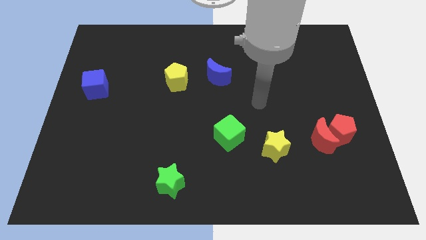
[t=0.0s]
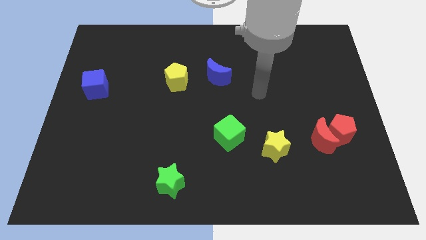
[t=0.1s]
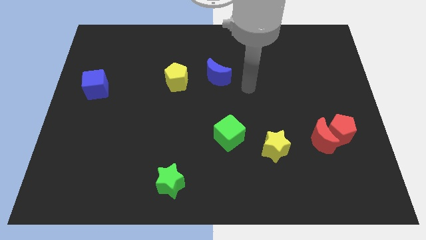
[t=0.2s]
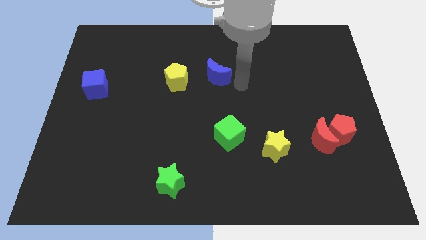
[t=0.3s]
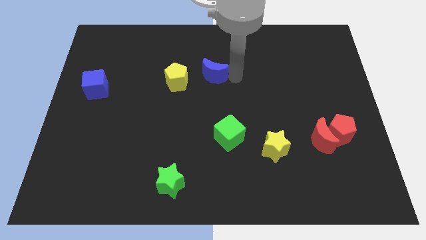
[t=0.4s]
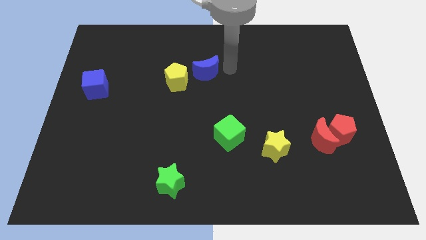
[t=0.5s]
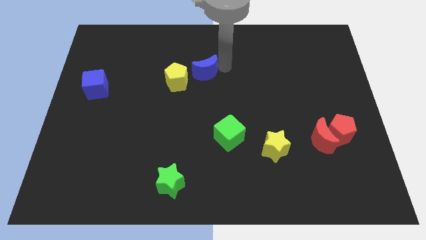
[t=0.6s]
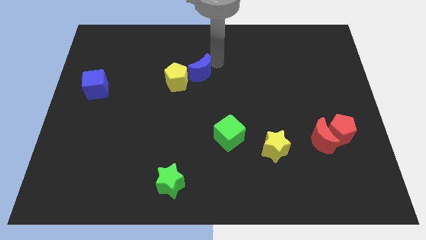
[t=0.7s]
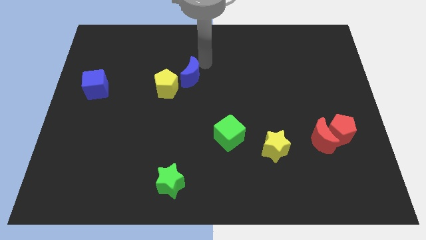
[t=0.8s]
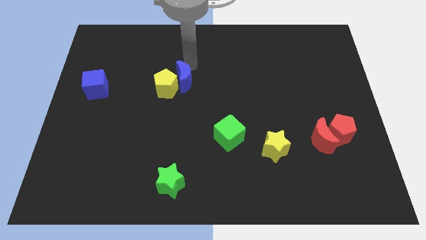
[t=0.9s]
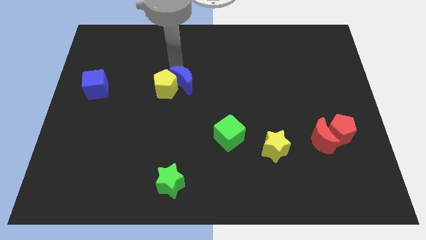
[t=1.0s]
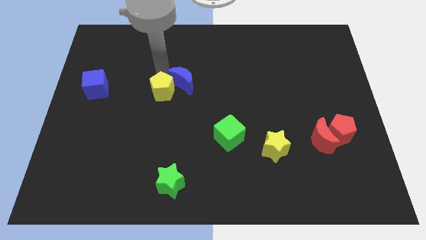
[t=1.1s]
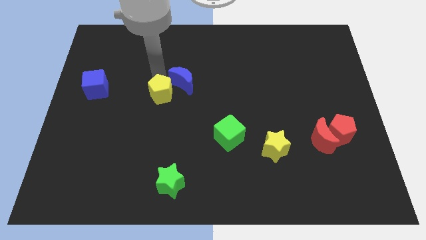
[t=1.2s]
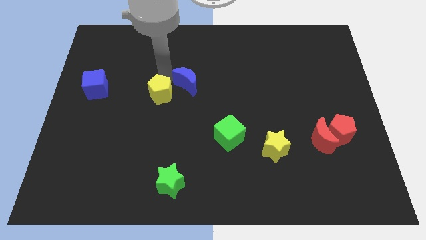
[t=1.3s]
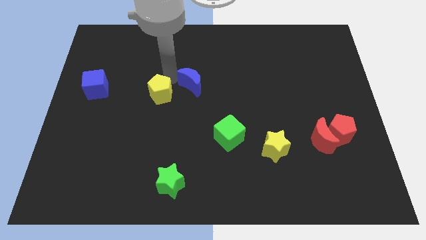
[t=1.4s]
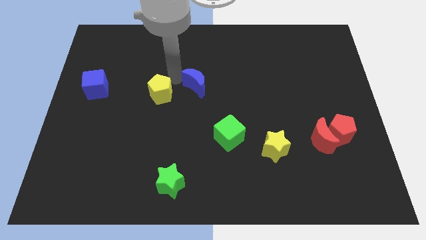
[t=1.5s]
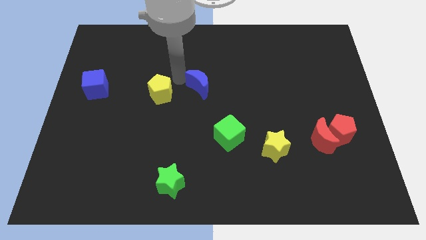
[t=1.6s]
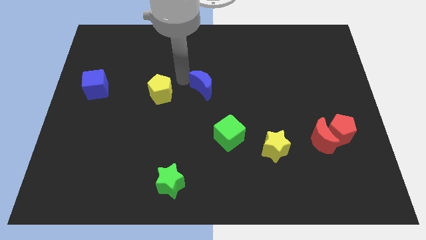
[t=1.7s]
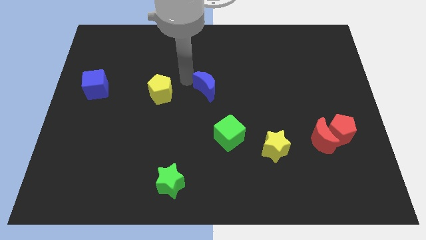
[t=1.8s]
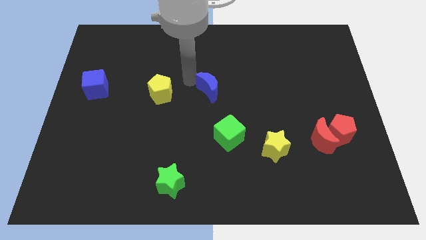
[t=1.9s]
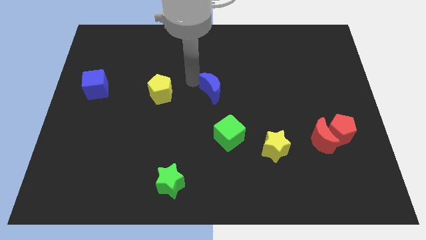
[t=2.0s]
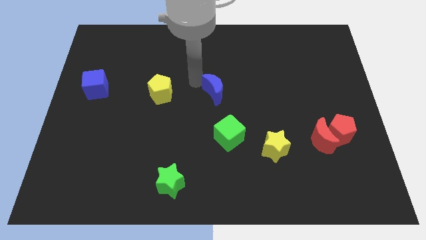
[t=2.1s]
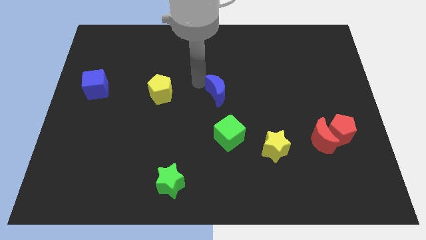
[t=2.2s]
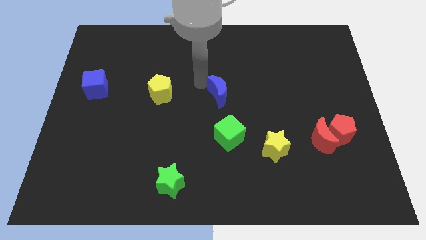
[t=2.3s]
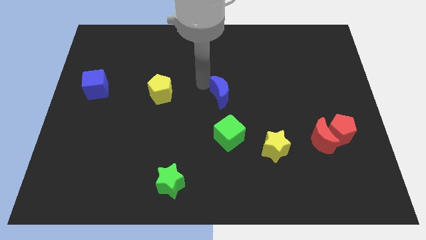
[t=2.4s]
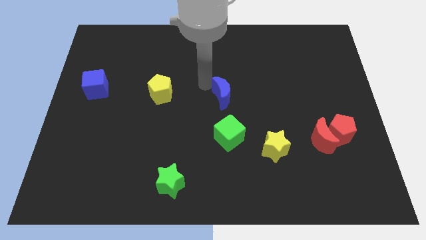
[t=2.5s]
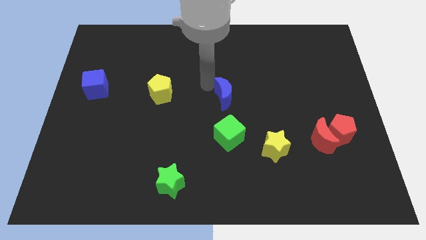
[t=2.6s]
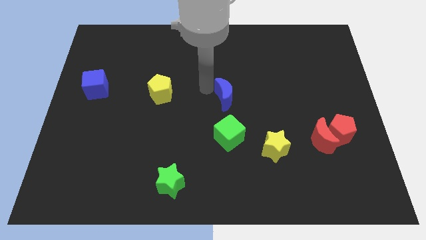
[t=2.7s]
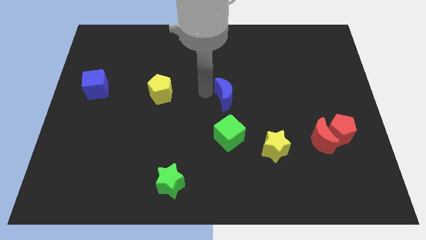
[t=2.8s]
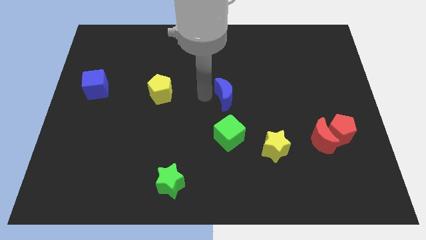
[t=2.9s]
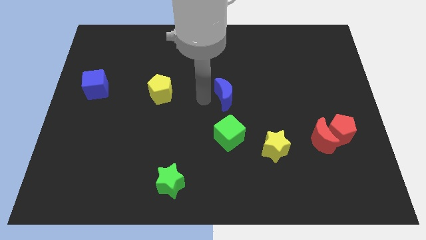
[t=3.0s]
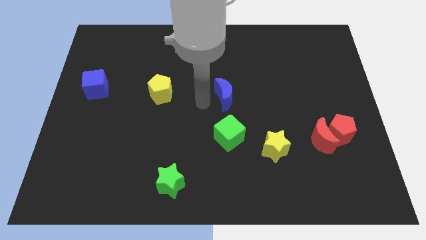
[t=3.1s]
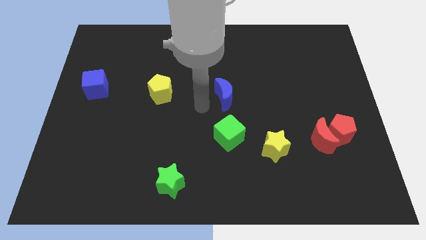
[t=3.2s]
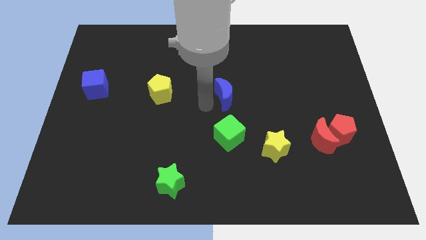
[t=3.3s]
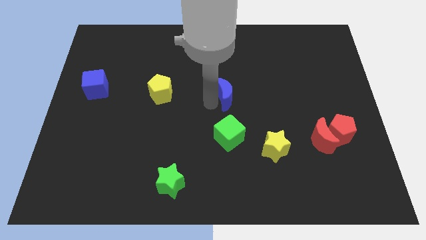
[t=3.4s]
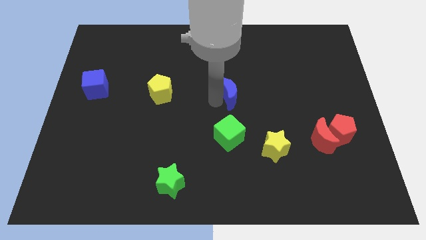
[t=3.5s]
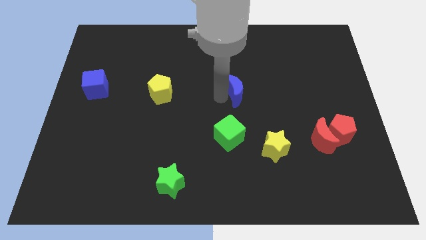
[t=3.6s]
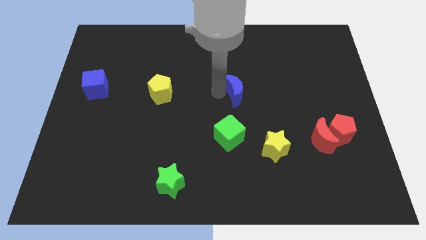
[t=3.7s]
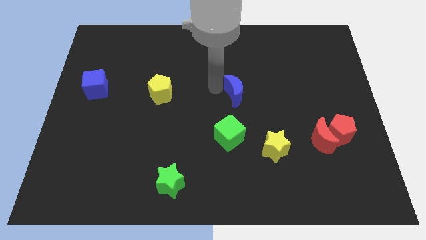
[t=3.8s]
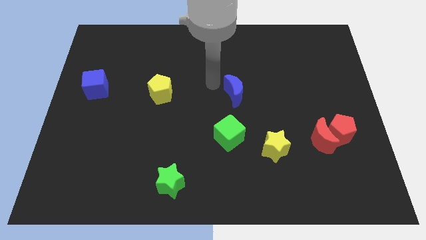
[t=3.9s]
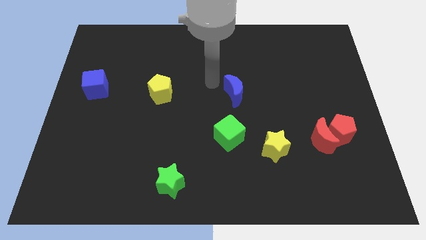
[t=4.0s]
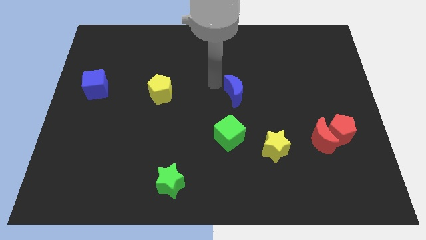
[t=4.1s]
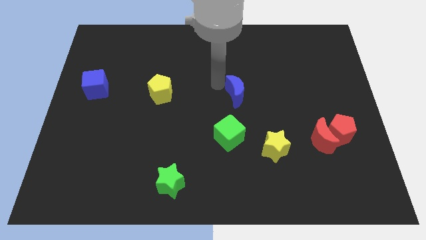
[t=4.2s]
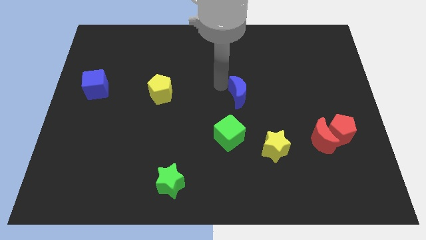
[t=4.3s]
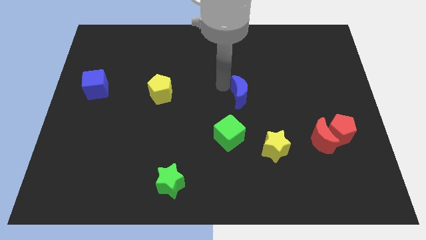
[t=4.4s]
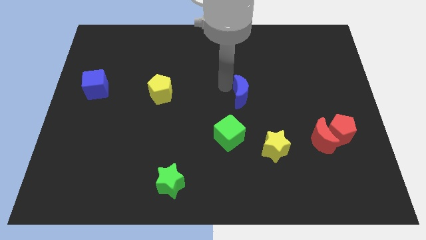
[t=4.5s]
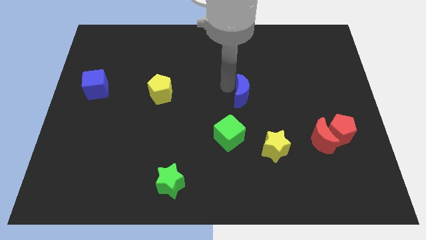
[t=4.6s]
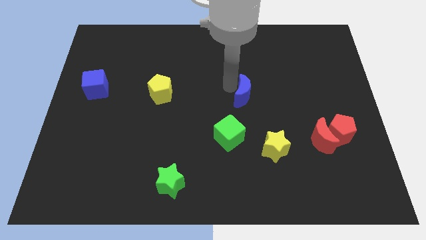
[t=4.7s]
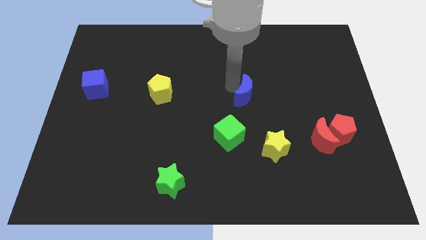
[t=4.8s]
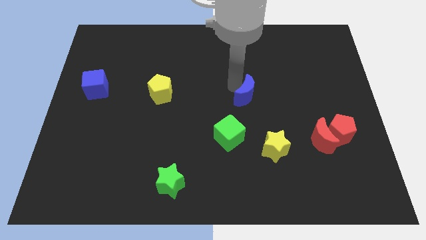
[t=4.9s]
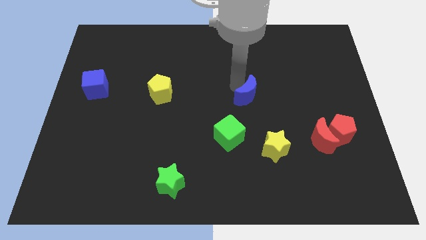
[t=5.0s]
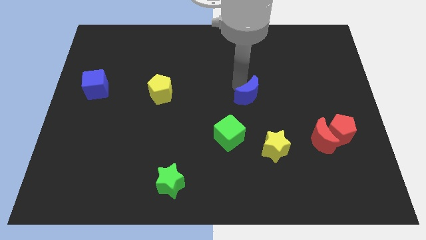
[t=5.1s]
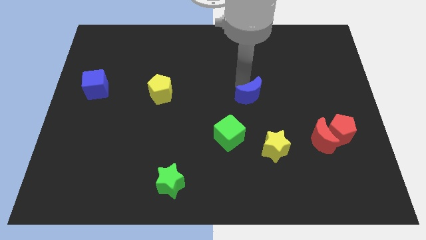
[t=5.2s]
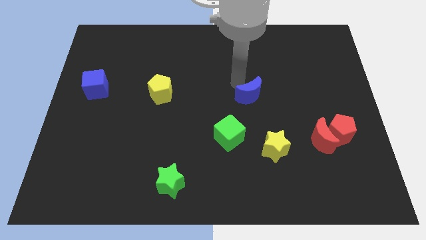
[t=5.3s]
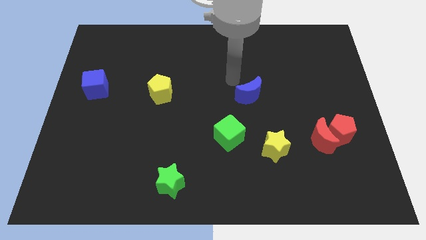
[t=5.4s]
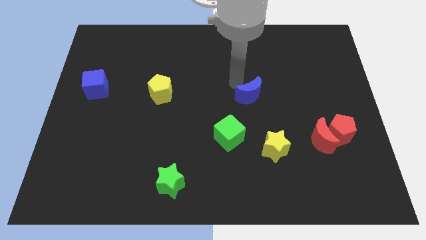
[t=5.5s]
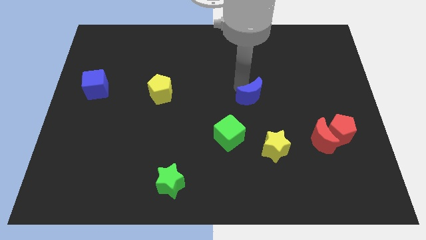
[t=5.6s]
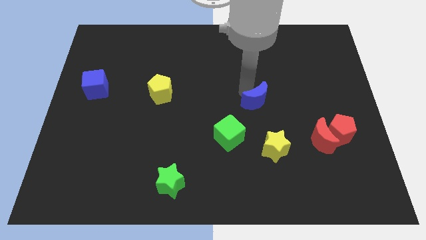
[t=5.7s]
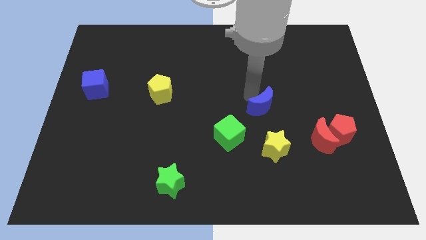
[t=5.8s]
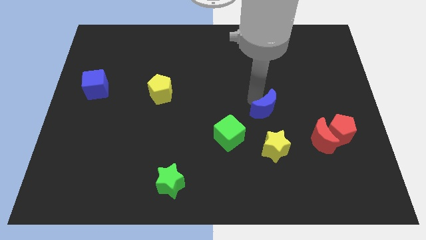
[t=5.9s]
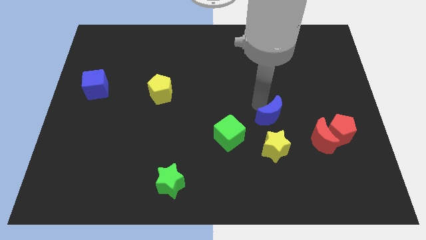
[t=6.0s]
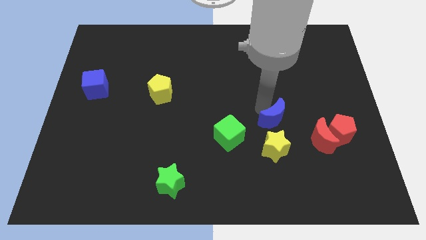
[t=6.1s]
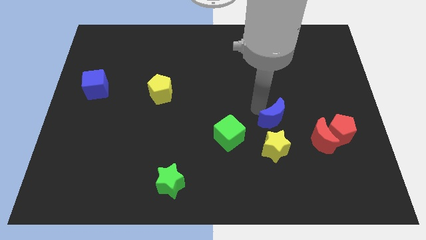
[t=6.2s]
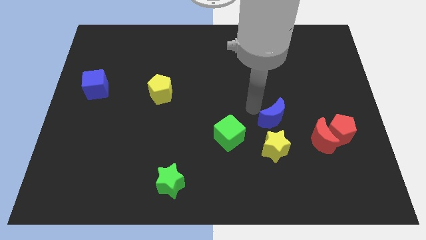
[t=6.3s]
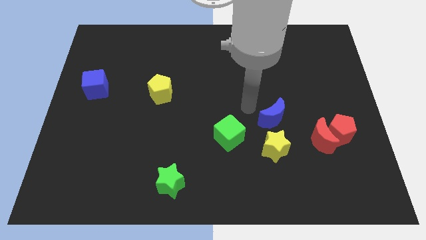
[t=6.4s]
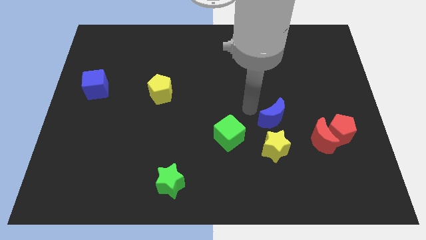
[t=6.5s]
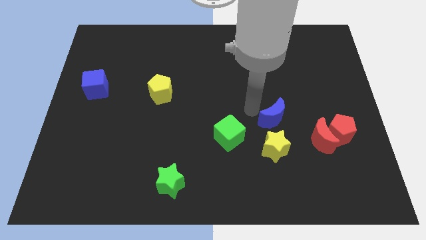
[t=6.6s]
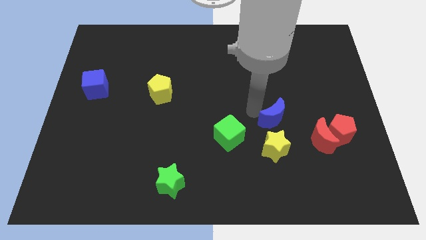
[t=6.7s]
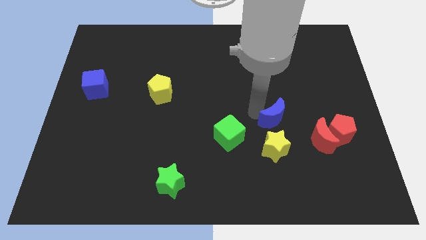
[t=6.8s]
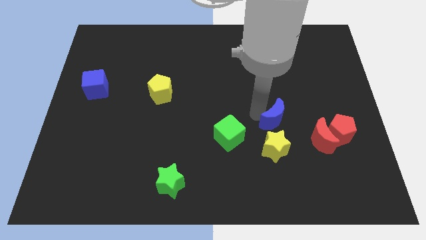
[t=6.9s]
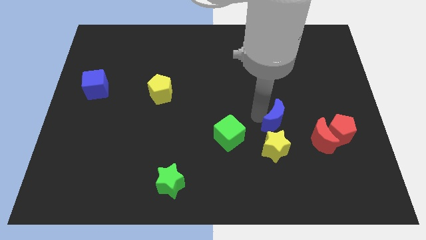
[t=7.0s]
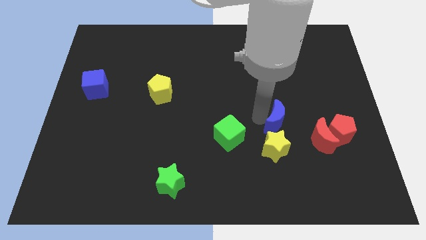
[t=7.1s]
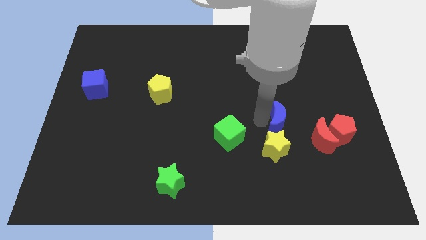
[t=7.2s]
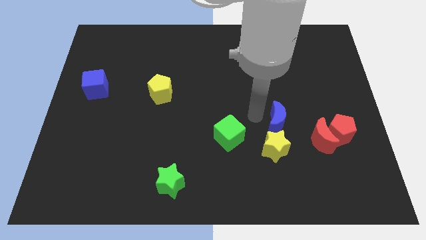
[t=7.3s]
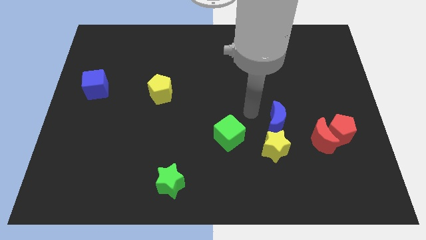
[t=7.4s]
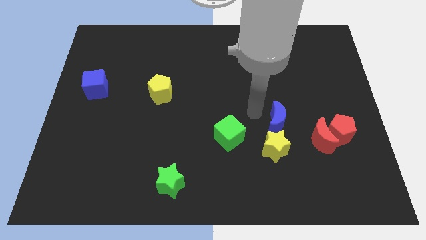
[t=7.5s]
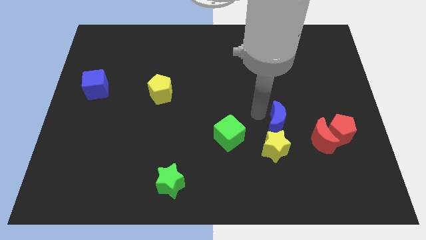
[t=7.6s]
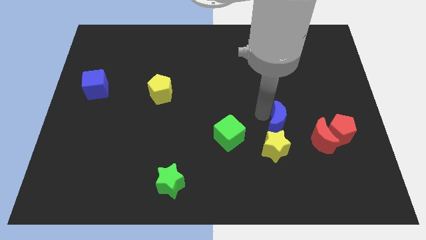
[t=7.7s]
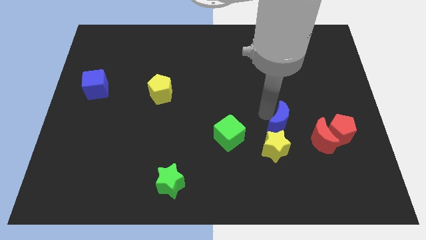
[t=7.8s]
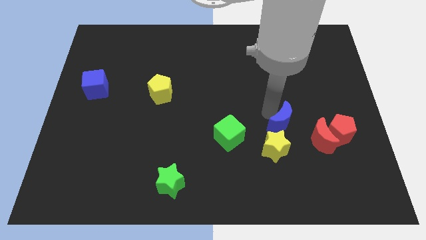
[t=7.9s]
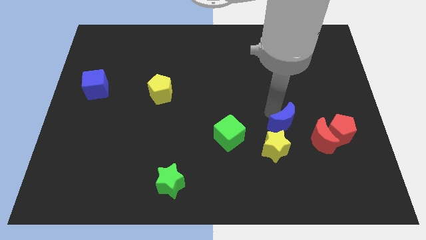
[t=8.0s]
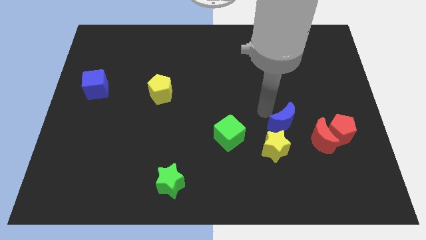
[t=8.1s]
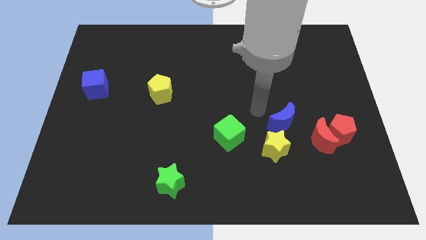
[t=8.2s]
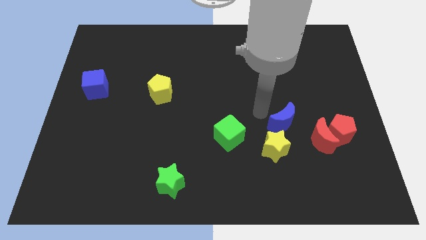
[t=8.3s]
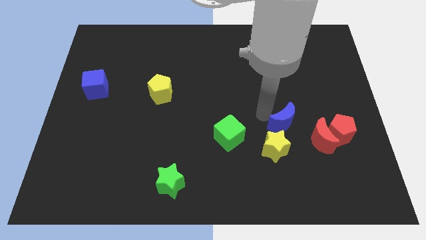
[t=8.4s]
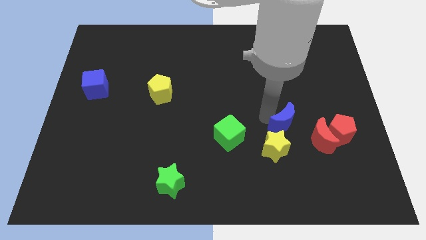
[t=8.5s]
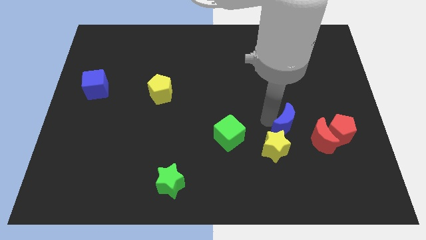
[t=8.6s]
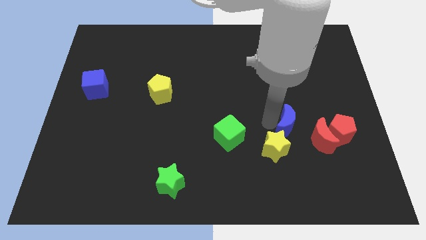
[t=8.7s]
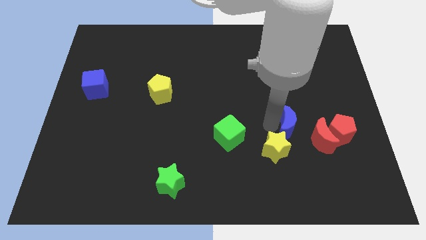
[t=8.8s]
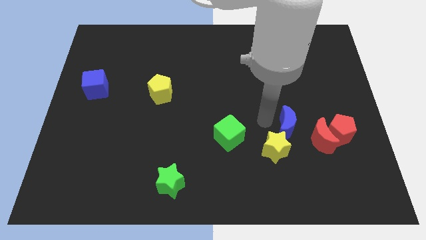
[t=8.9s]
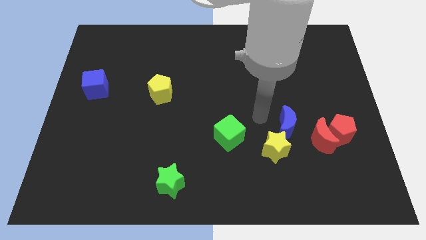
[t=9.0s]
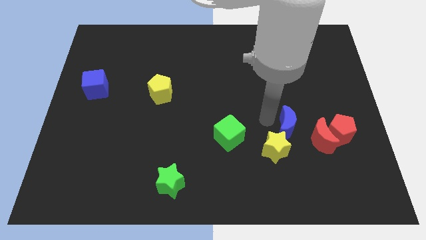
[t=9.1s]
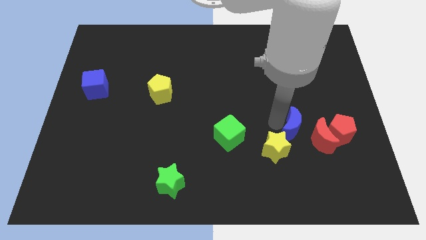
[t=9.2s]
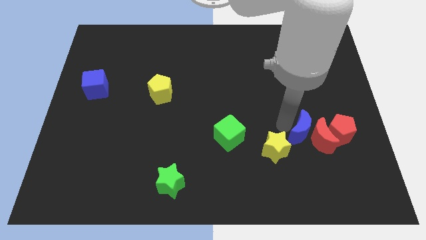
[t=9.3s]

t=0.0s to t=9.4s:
push the blue moon to the red moon
